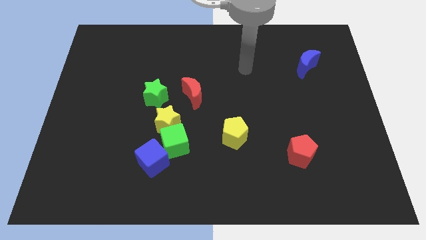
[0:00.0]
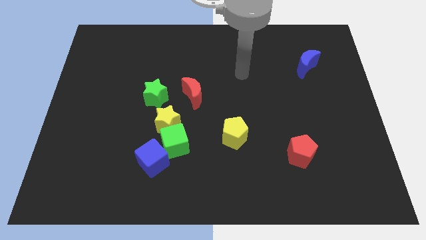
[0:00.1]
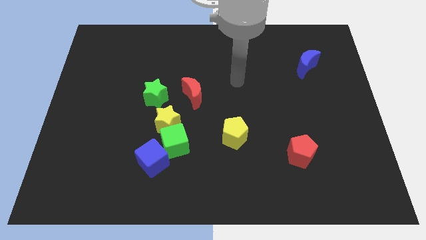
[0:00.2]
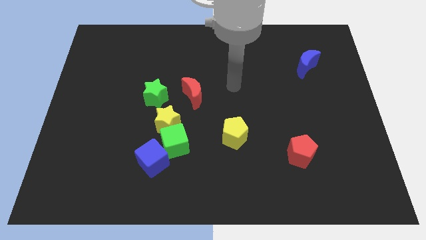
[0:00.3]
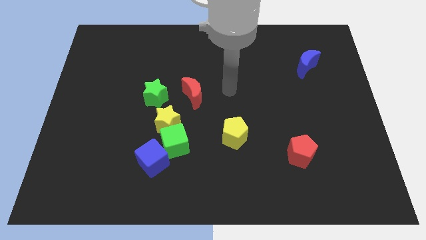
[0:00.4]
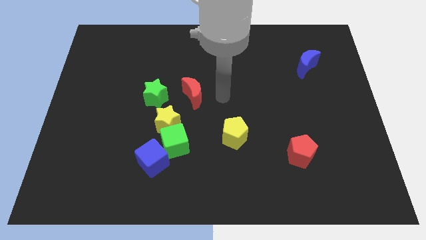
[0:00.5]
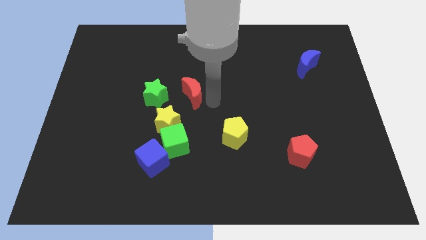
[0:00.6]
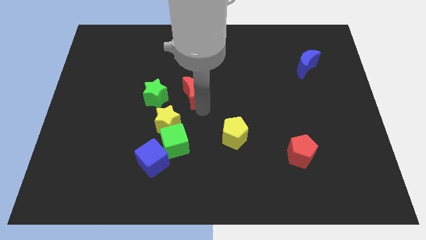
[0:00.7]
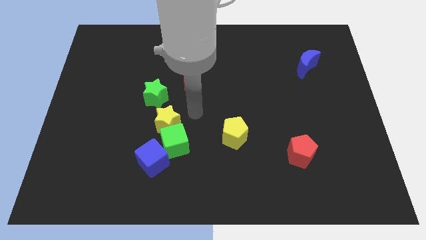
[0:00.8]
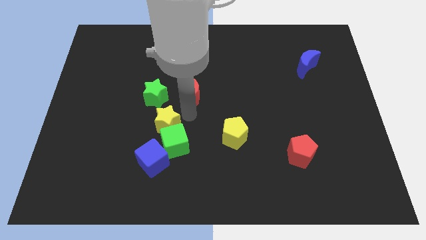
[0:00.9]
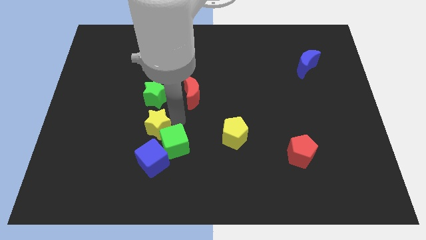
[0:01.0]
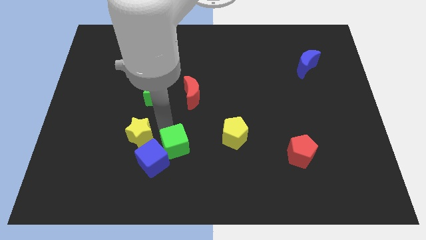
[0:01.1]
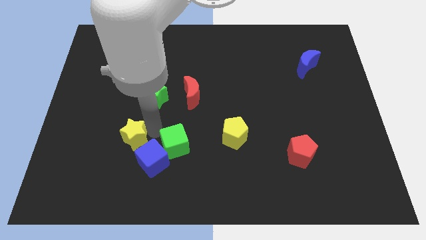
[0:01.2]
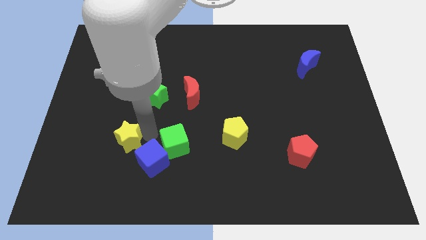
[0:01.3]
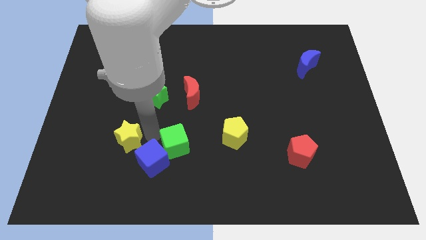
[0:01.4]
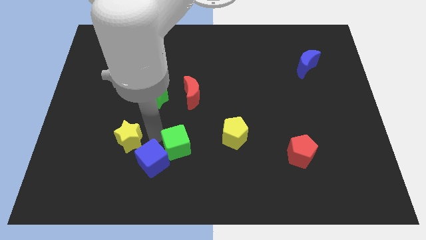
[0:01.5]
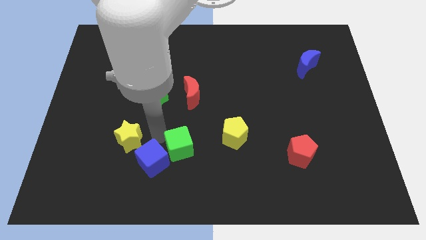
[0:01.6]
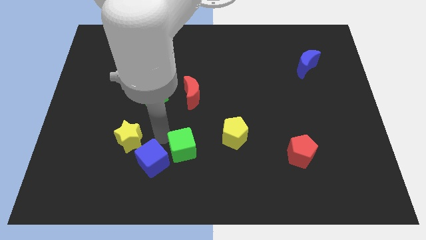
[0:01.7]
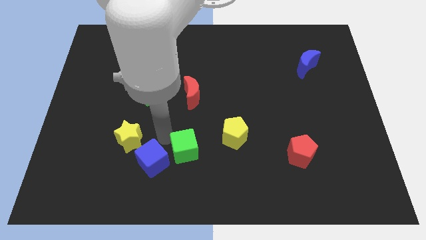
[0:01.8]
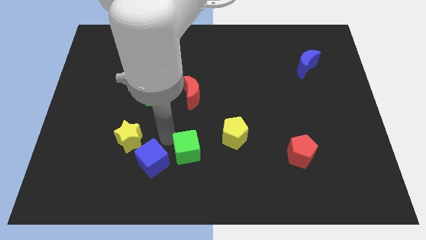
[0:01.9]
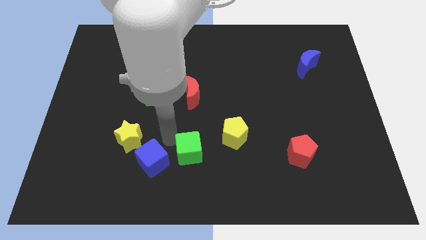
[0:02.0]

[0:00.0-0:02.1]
move the green cube away from the yellow star and blue cube

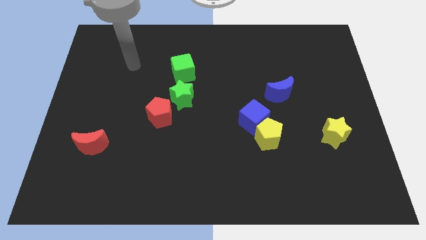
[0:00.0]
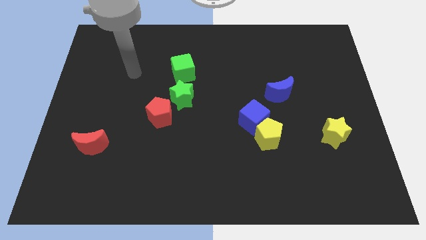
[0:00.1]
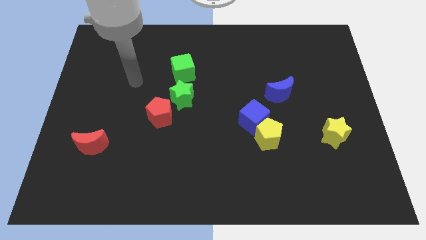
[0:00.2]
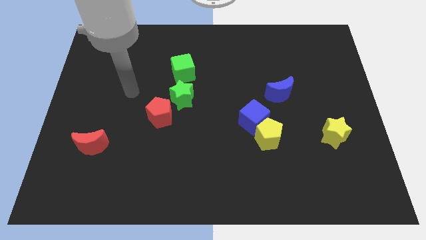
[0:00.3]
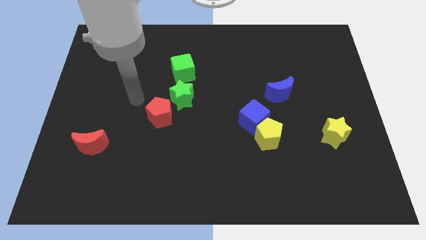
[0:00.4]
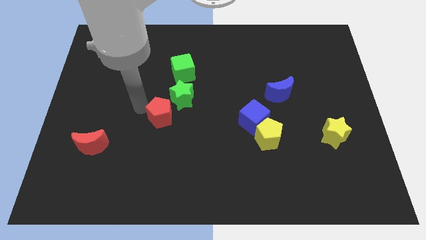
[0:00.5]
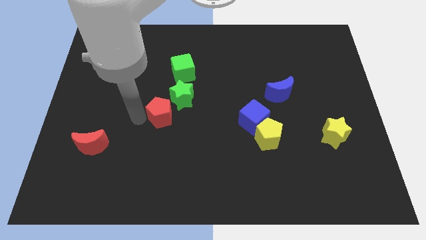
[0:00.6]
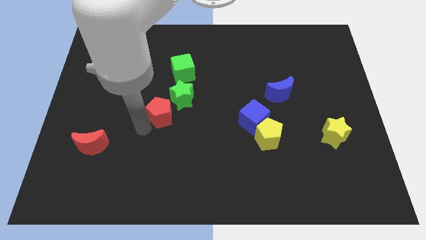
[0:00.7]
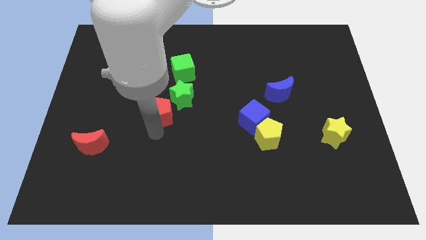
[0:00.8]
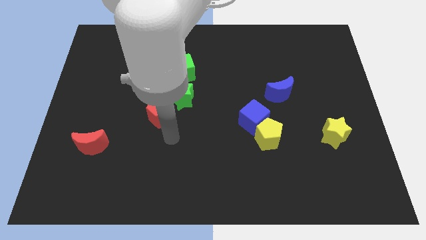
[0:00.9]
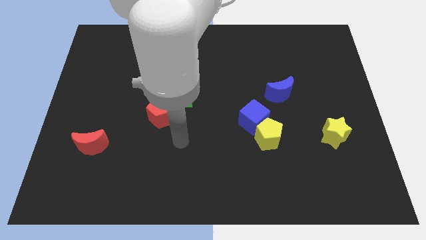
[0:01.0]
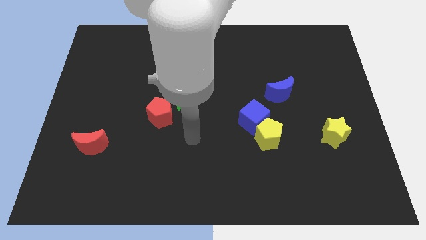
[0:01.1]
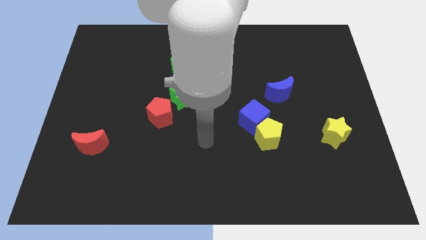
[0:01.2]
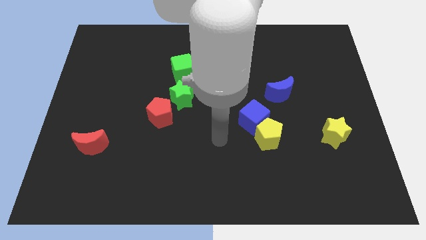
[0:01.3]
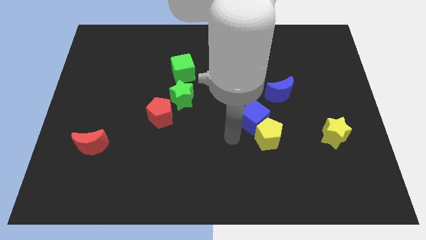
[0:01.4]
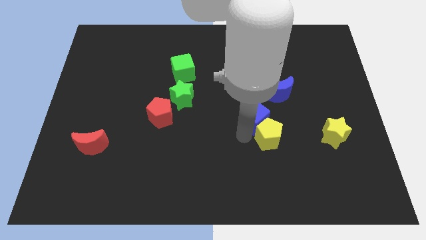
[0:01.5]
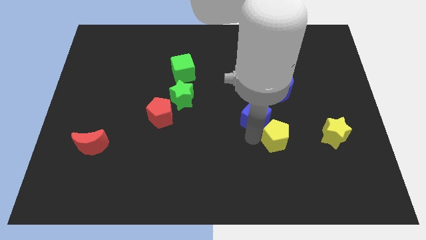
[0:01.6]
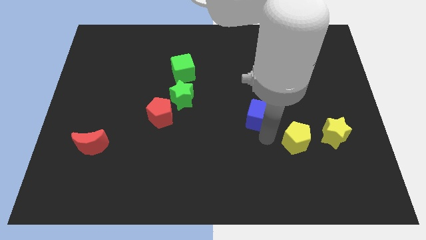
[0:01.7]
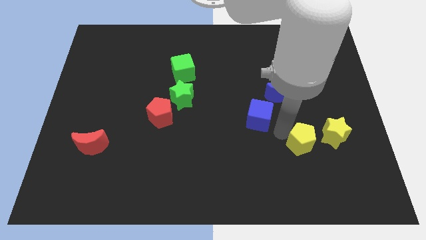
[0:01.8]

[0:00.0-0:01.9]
move the blue cube away from the yellow pentagon

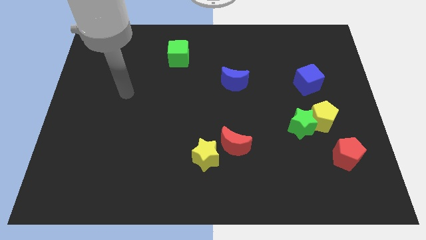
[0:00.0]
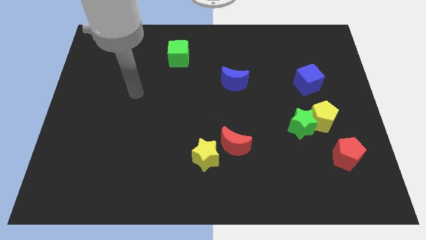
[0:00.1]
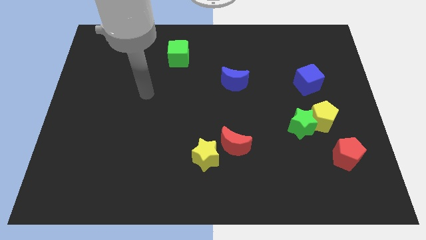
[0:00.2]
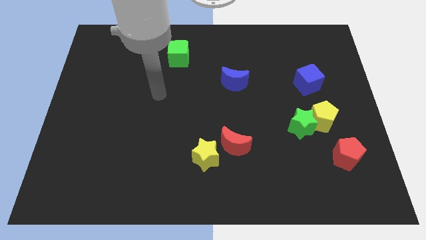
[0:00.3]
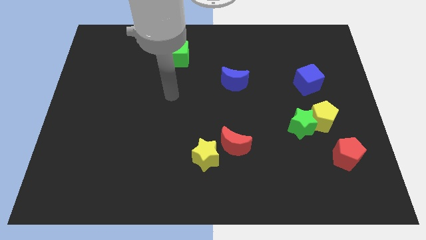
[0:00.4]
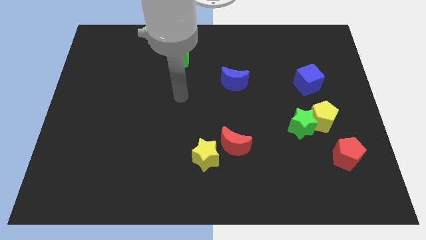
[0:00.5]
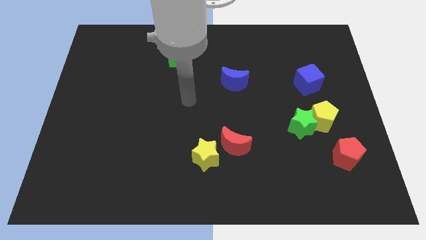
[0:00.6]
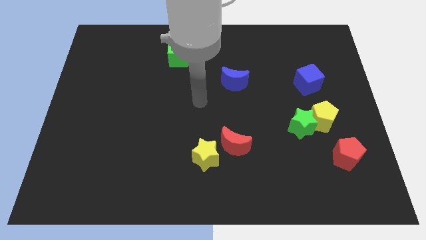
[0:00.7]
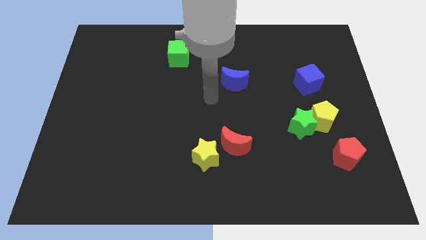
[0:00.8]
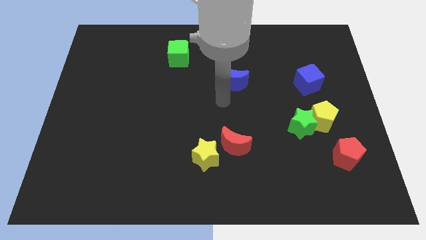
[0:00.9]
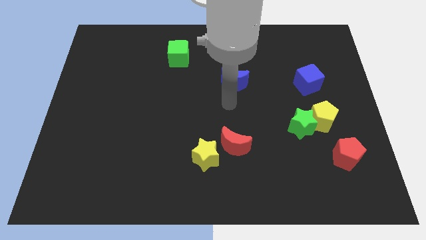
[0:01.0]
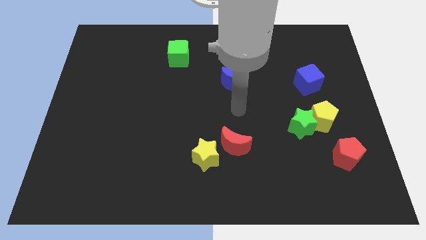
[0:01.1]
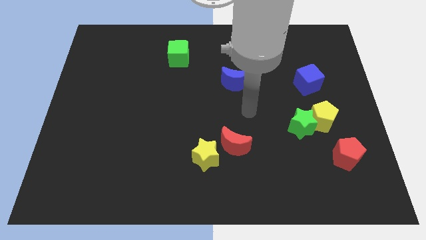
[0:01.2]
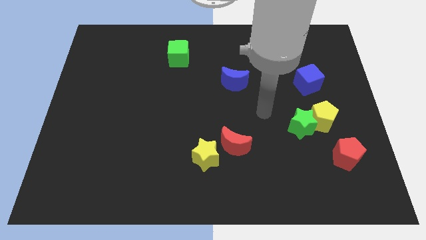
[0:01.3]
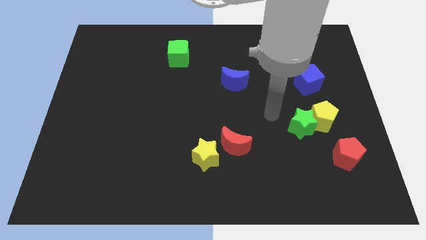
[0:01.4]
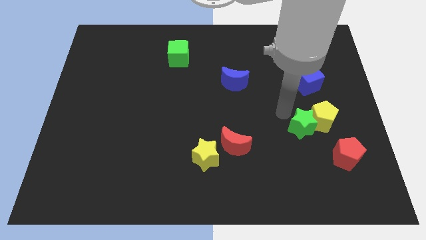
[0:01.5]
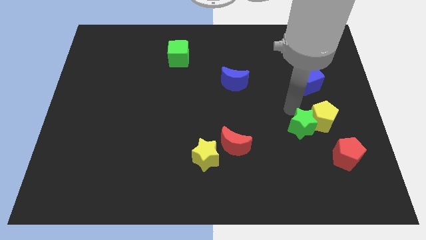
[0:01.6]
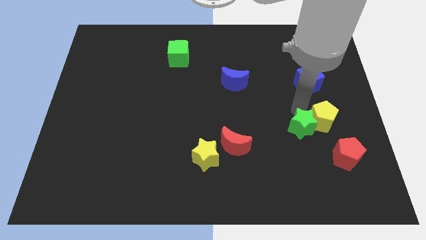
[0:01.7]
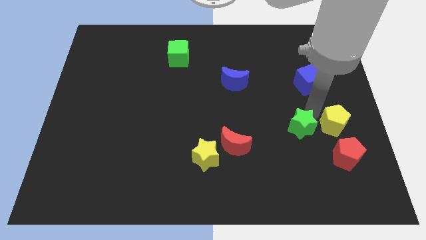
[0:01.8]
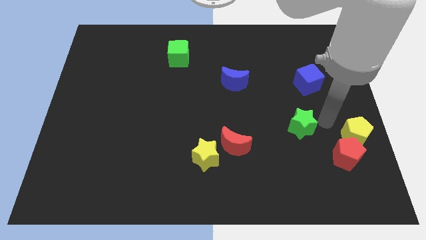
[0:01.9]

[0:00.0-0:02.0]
move the green star away from the yellow pentagon

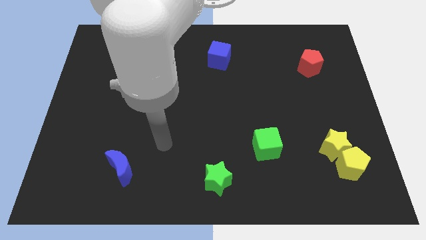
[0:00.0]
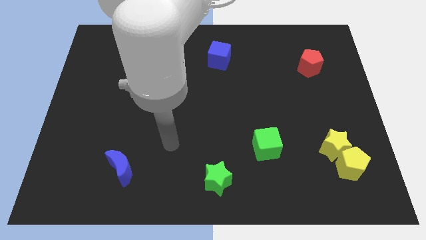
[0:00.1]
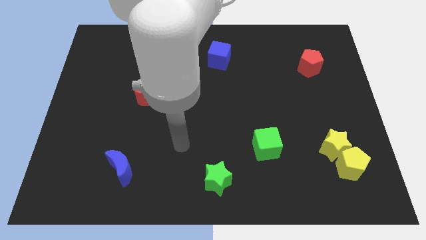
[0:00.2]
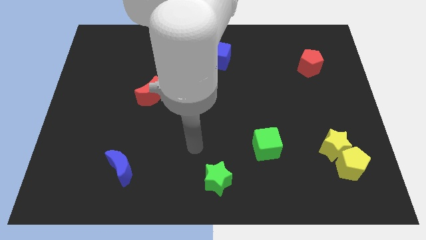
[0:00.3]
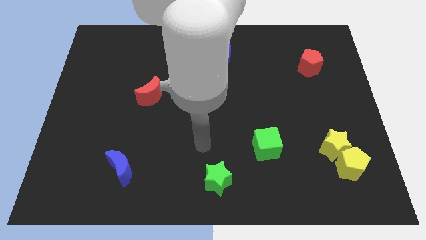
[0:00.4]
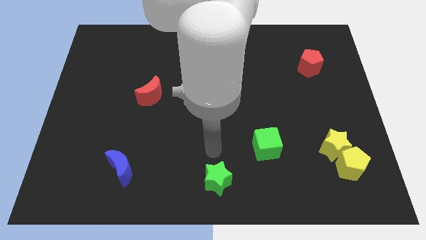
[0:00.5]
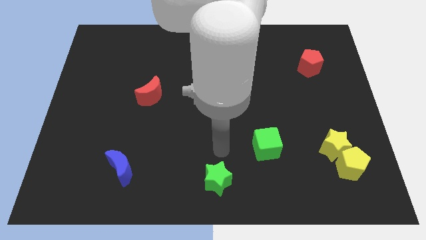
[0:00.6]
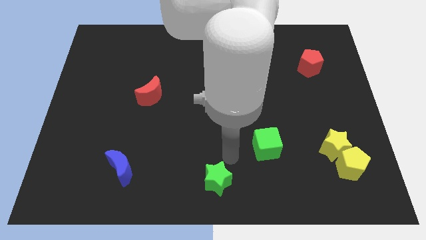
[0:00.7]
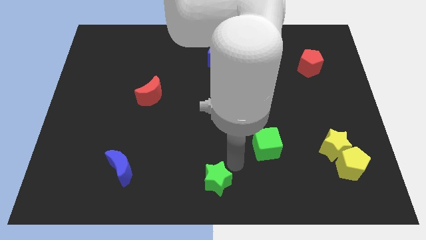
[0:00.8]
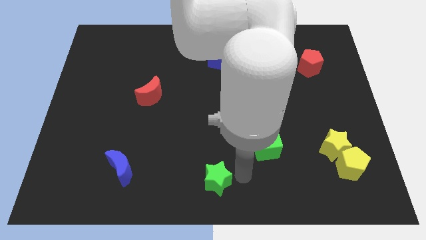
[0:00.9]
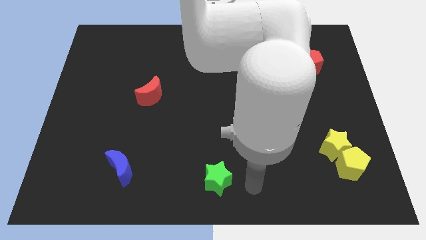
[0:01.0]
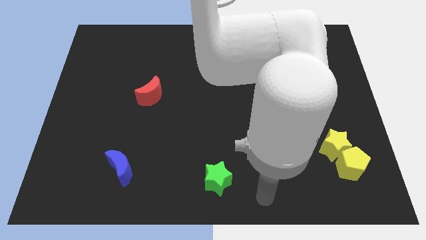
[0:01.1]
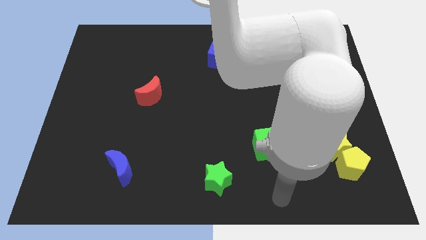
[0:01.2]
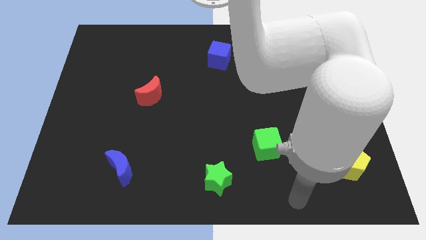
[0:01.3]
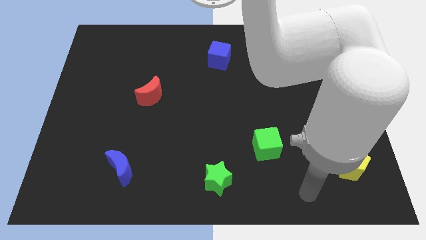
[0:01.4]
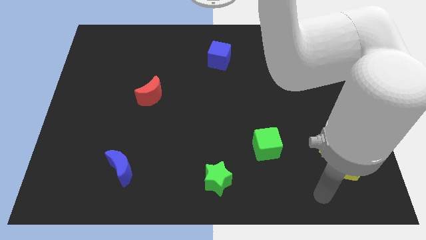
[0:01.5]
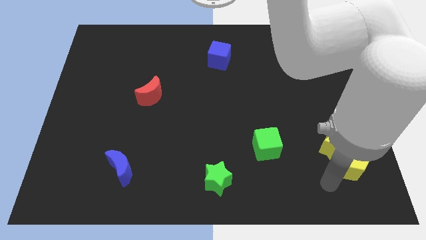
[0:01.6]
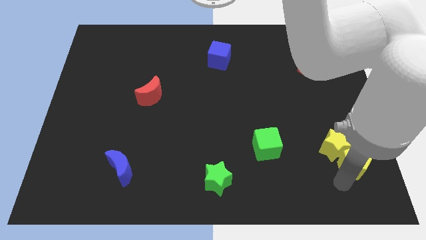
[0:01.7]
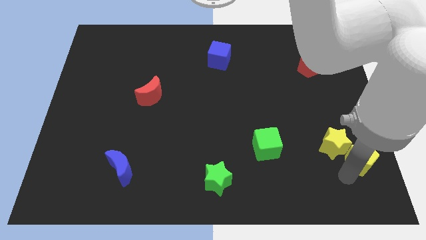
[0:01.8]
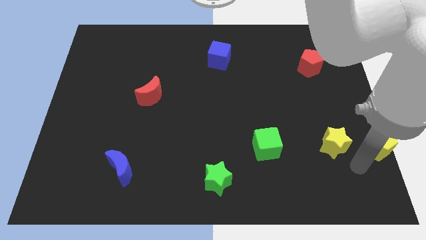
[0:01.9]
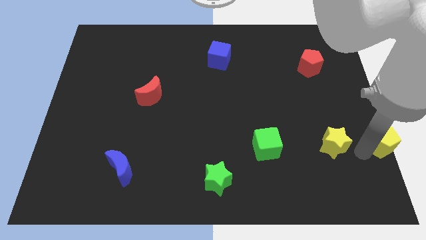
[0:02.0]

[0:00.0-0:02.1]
pull the yellow star apart from the yellow pentagon

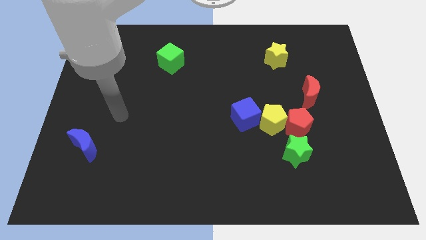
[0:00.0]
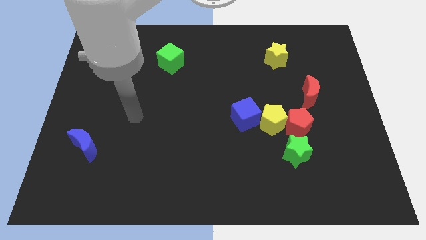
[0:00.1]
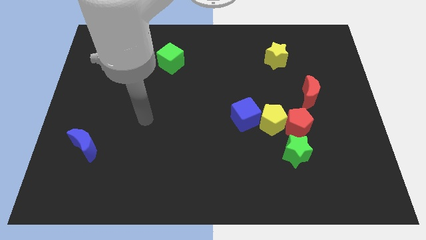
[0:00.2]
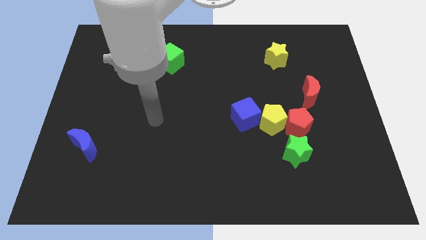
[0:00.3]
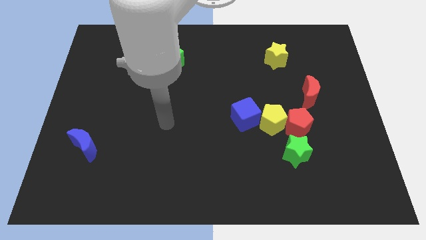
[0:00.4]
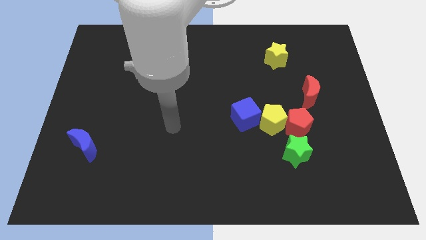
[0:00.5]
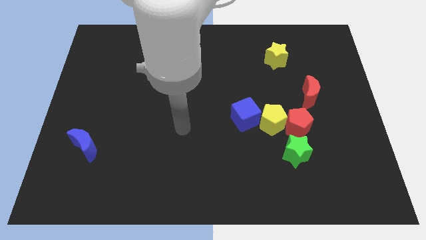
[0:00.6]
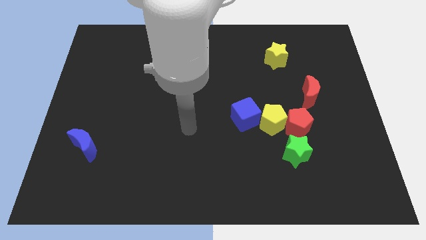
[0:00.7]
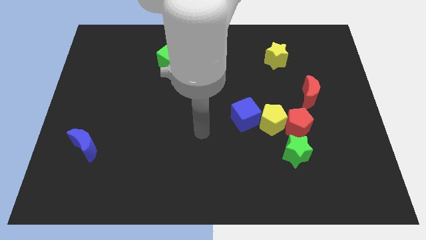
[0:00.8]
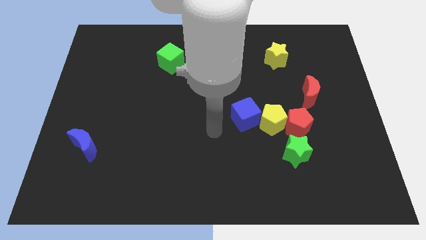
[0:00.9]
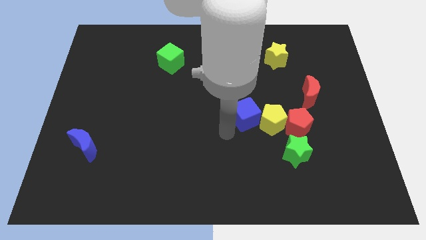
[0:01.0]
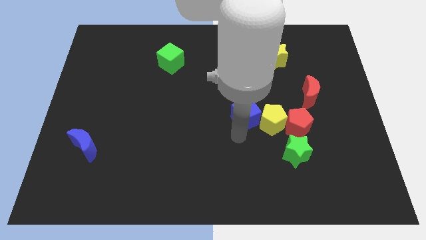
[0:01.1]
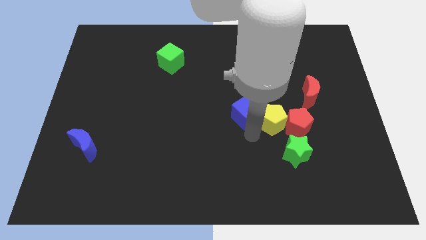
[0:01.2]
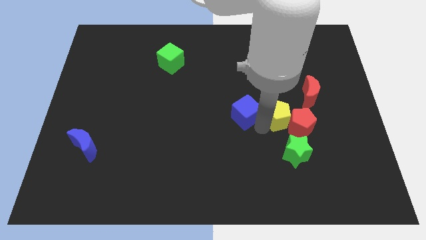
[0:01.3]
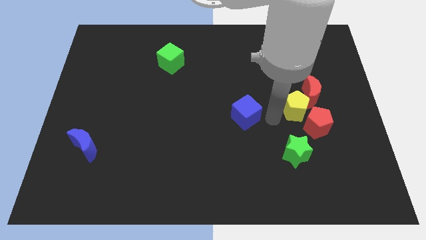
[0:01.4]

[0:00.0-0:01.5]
separate the blue cube from the yellow pentagon
